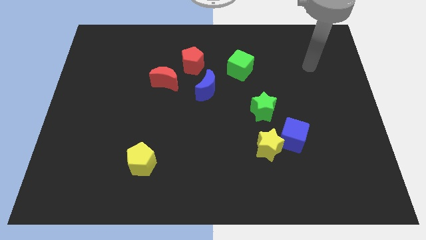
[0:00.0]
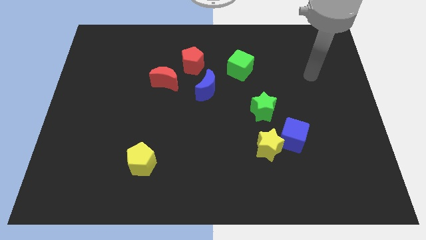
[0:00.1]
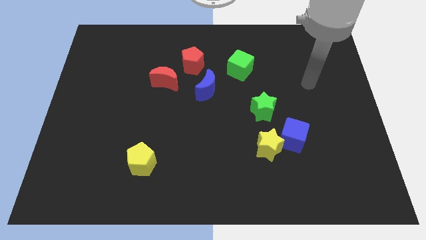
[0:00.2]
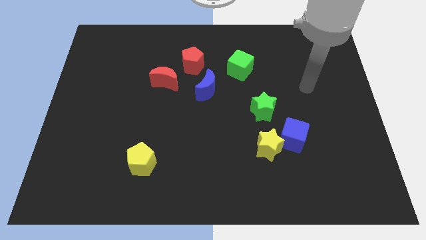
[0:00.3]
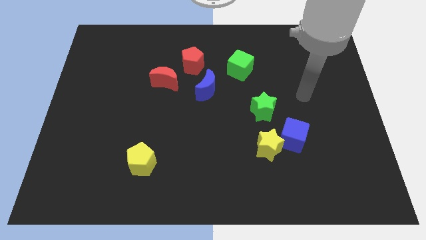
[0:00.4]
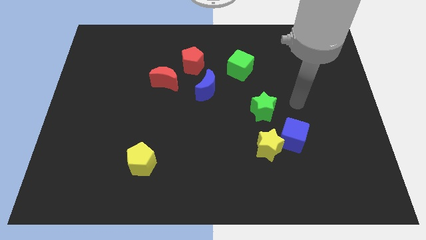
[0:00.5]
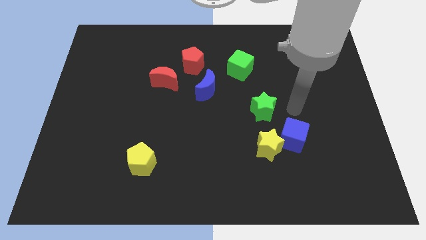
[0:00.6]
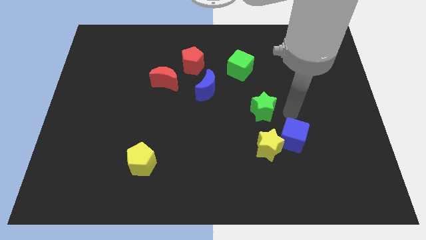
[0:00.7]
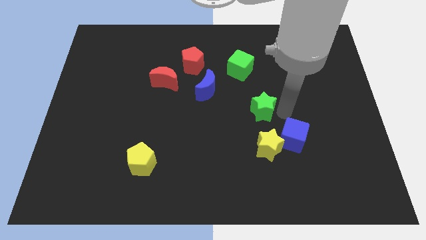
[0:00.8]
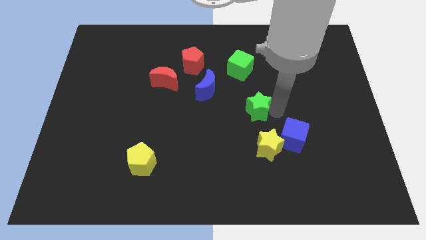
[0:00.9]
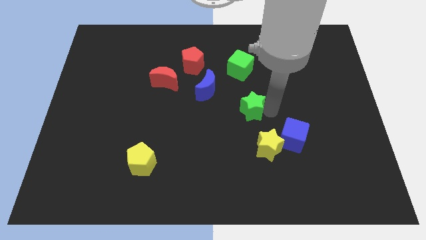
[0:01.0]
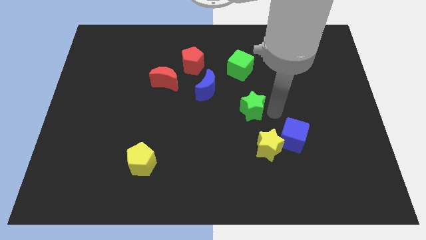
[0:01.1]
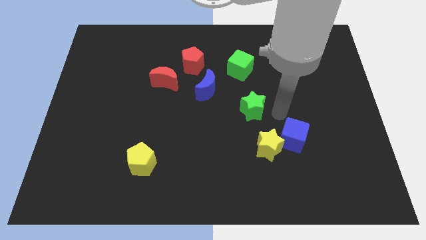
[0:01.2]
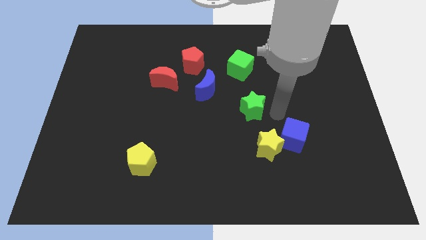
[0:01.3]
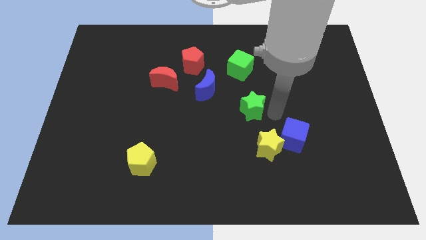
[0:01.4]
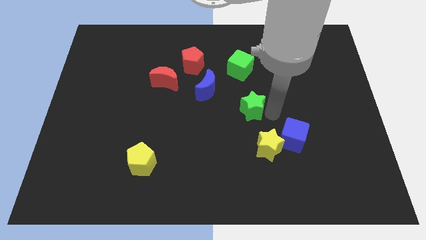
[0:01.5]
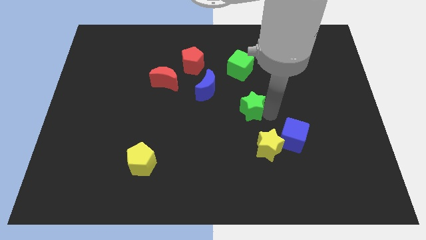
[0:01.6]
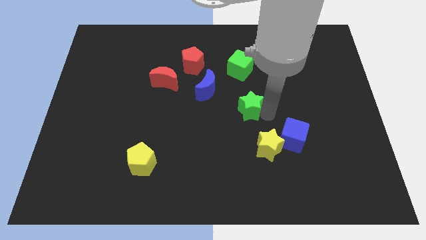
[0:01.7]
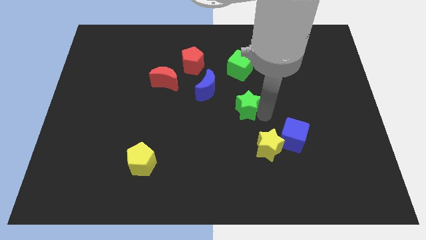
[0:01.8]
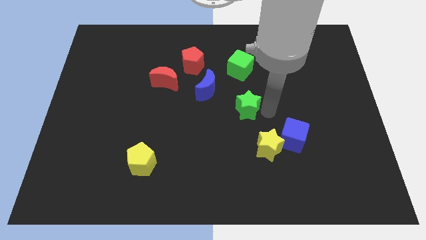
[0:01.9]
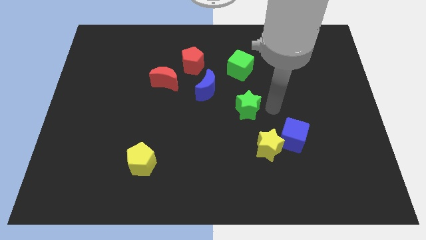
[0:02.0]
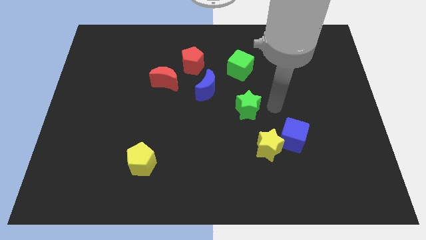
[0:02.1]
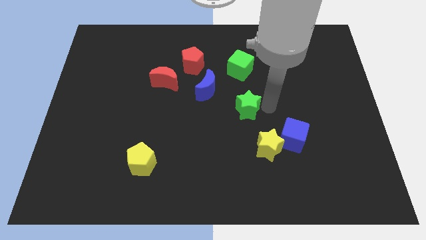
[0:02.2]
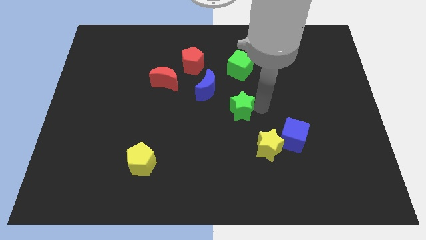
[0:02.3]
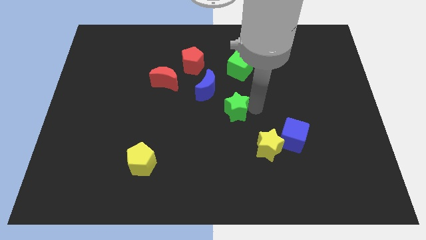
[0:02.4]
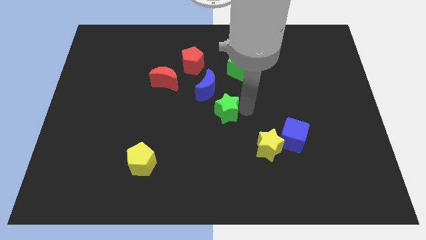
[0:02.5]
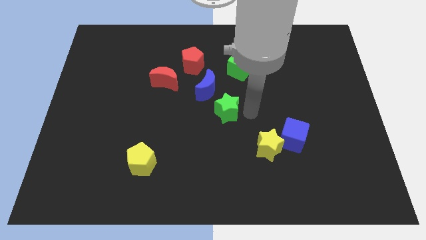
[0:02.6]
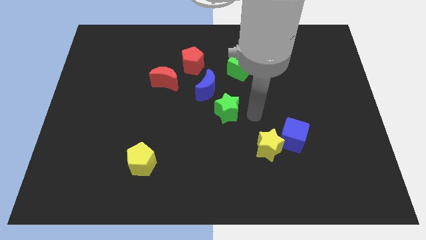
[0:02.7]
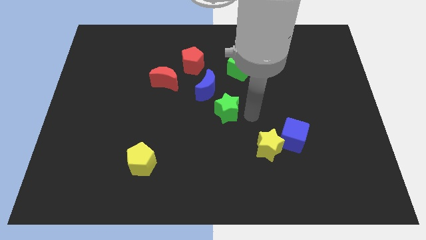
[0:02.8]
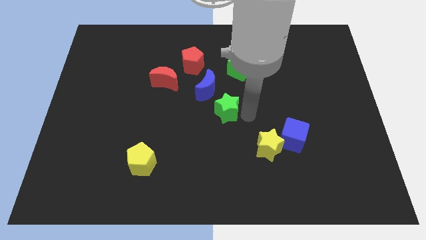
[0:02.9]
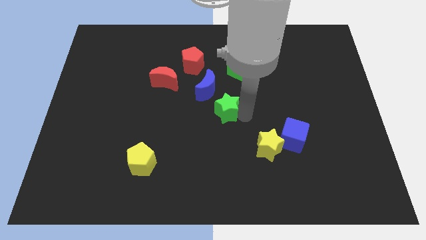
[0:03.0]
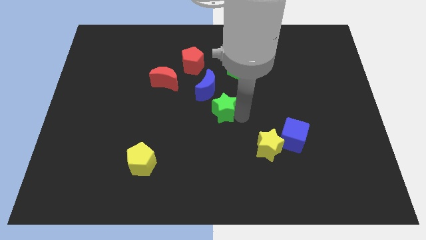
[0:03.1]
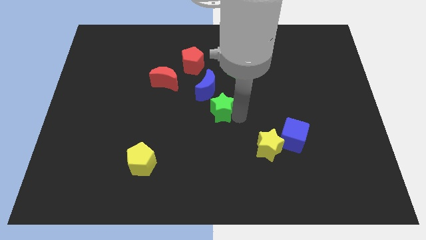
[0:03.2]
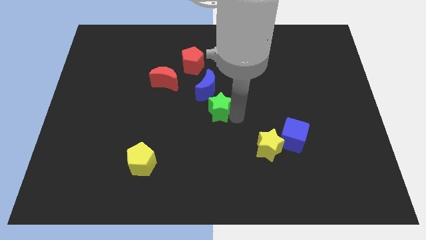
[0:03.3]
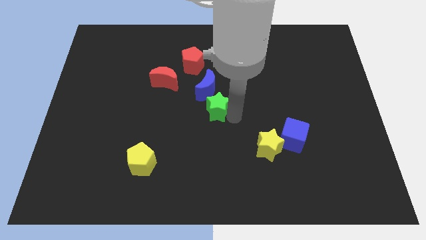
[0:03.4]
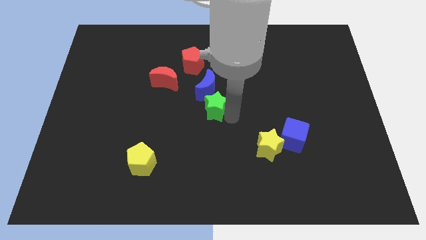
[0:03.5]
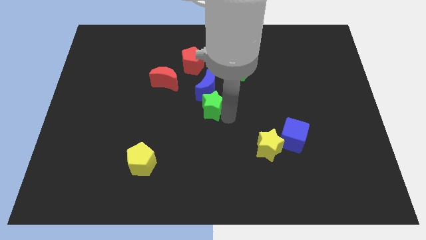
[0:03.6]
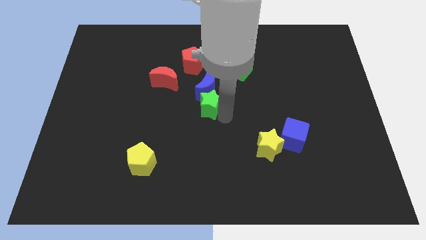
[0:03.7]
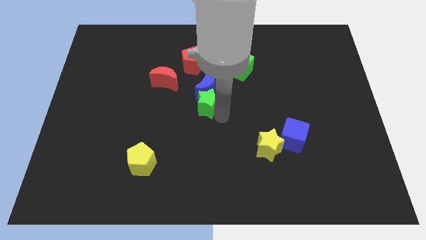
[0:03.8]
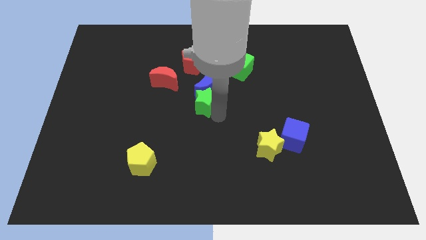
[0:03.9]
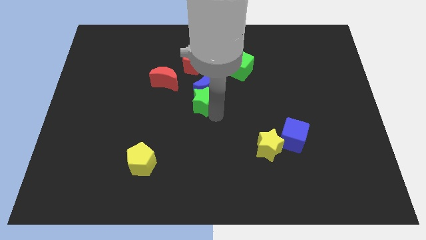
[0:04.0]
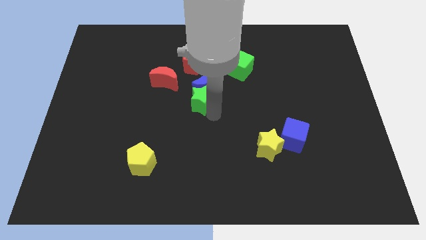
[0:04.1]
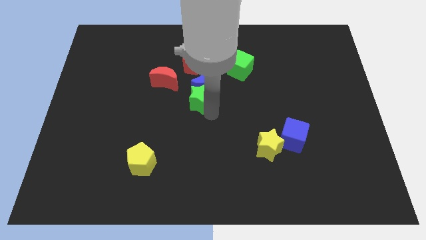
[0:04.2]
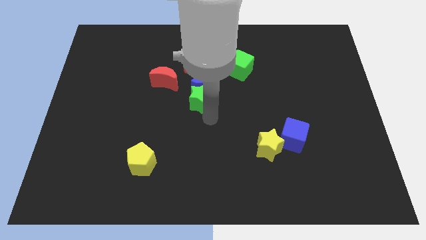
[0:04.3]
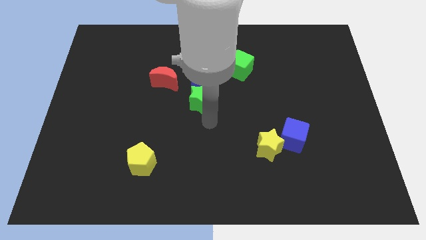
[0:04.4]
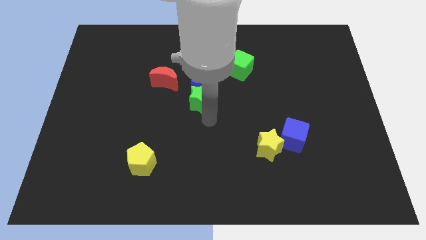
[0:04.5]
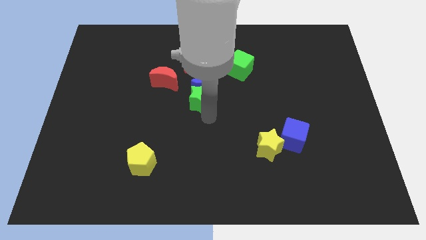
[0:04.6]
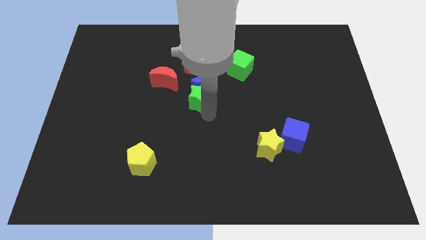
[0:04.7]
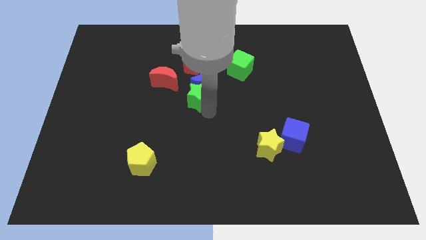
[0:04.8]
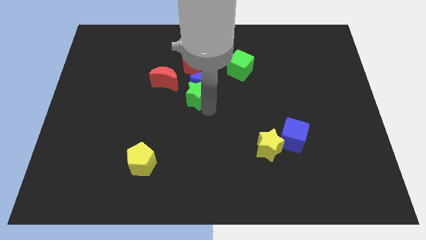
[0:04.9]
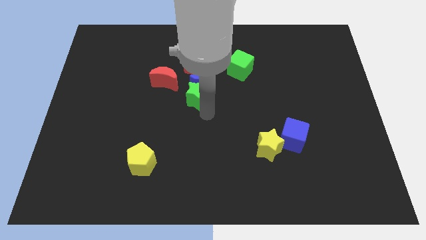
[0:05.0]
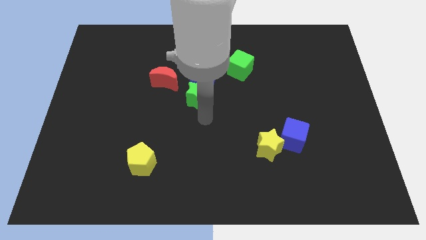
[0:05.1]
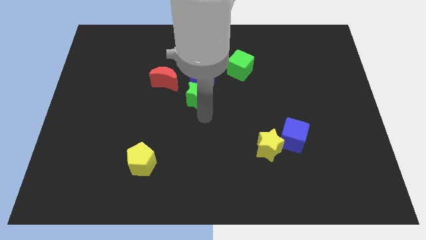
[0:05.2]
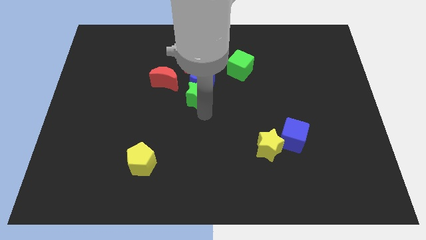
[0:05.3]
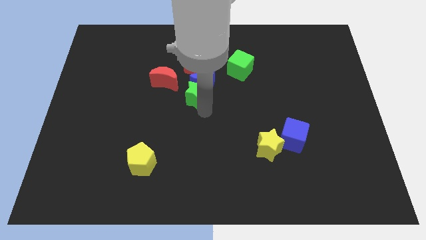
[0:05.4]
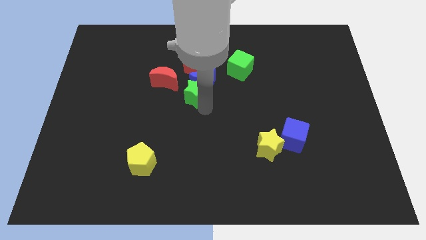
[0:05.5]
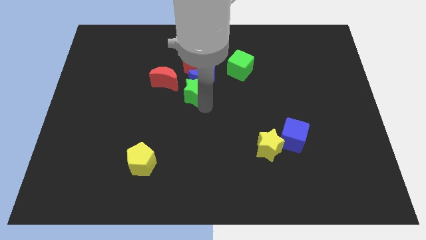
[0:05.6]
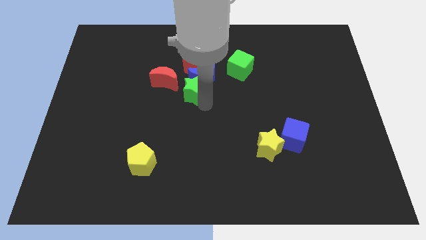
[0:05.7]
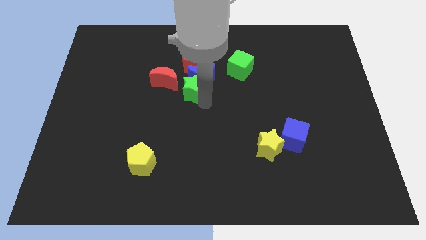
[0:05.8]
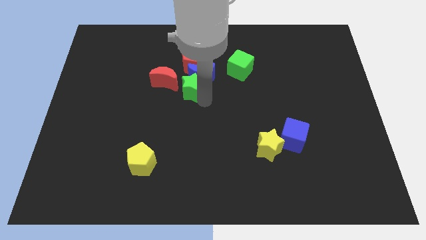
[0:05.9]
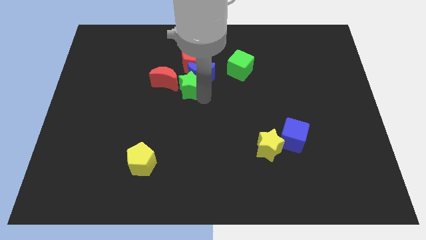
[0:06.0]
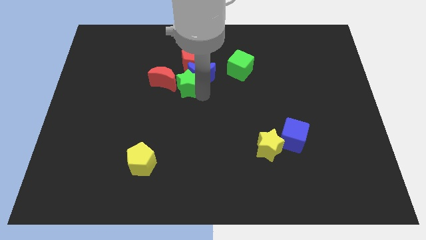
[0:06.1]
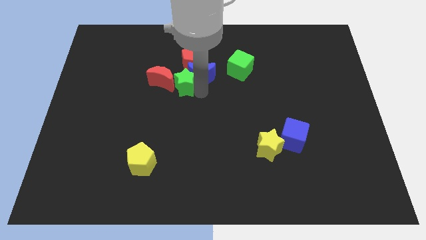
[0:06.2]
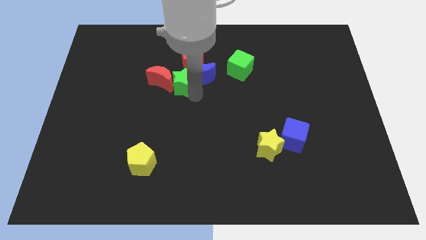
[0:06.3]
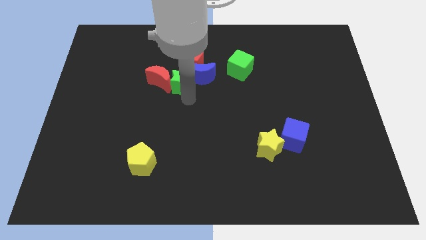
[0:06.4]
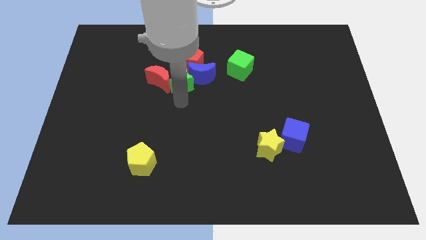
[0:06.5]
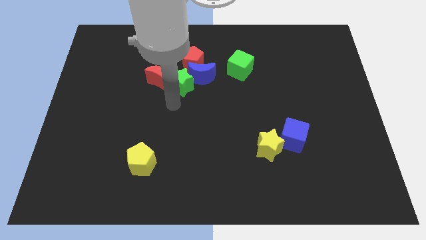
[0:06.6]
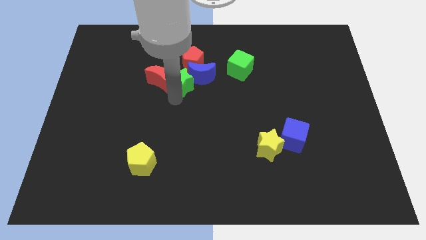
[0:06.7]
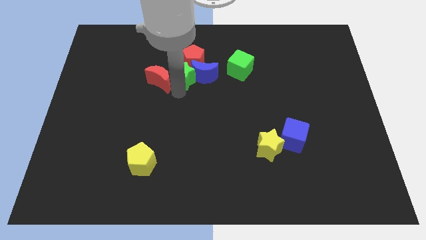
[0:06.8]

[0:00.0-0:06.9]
move the green star to the red pentagon
